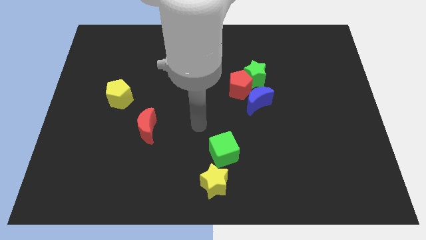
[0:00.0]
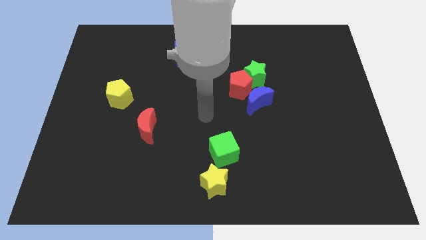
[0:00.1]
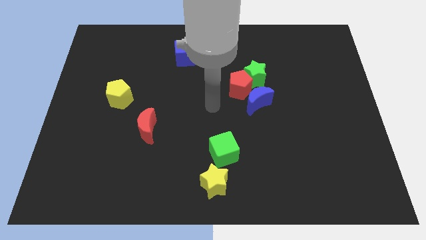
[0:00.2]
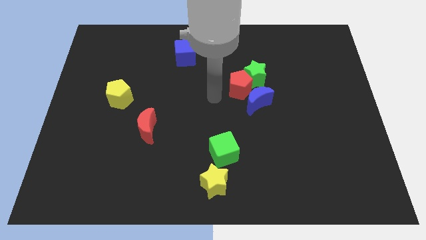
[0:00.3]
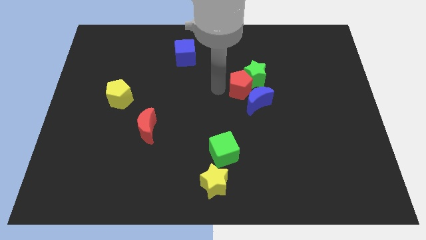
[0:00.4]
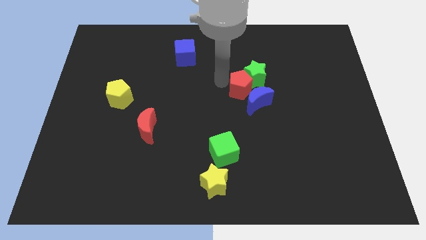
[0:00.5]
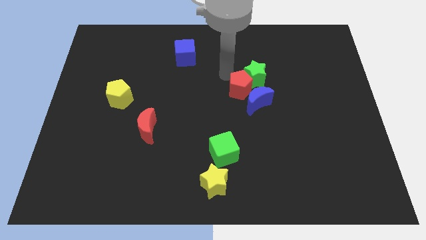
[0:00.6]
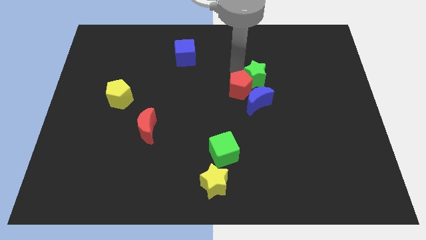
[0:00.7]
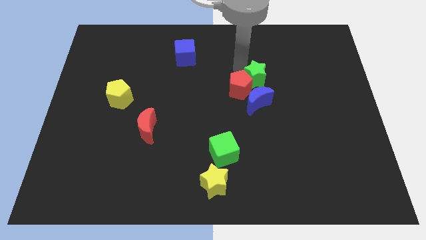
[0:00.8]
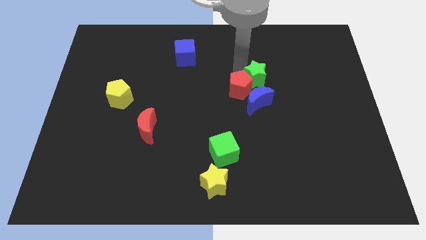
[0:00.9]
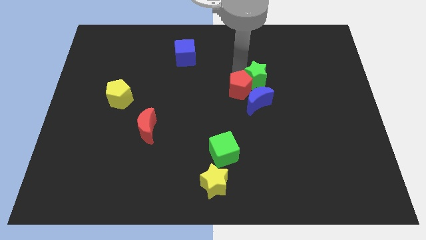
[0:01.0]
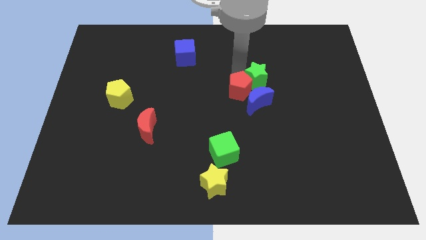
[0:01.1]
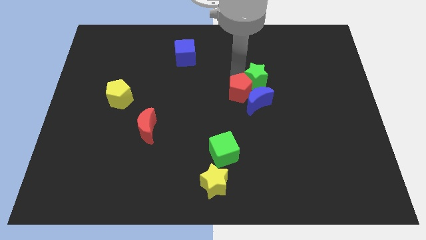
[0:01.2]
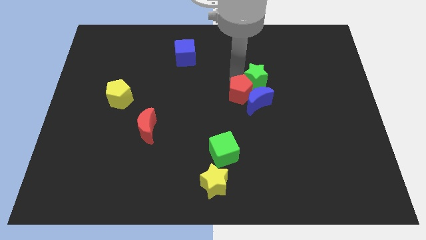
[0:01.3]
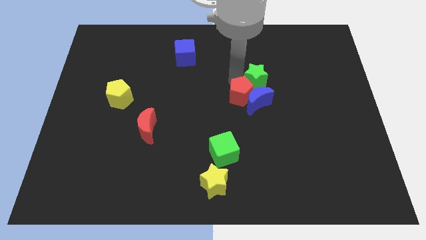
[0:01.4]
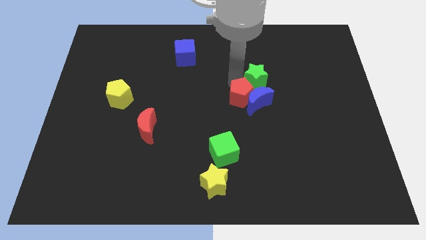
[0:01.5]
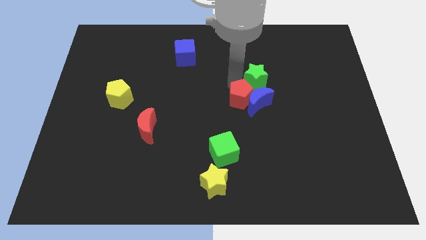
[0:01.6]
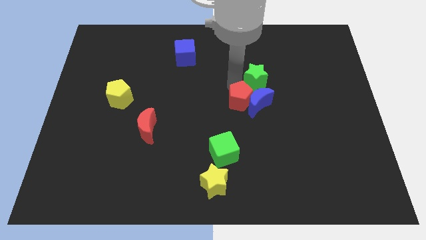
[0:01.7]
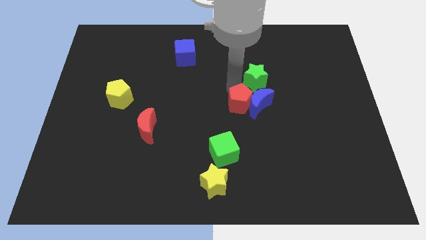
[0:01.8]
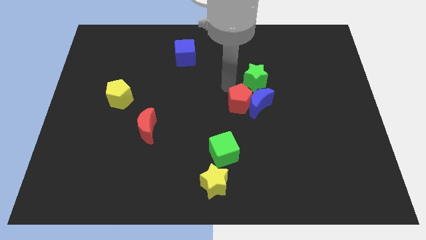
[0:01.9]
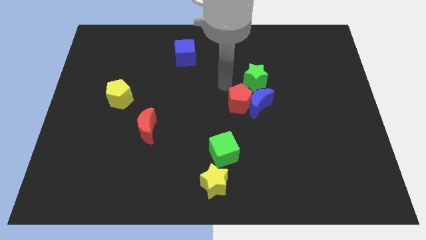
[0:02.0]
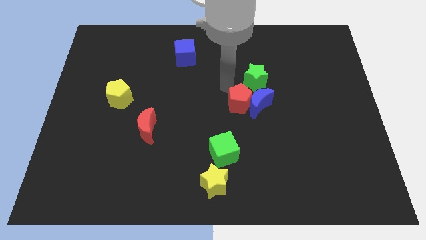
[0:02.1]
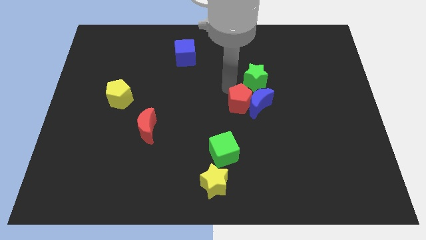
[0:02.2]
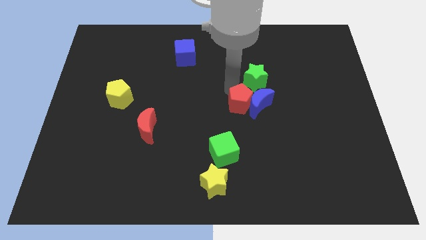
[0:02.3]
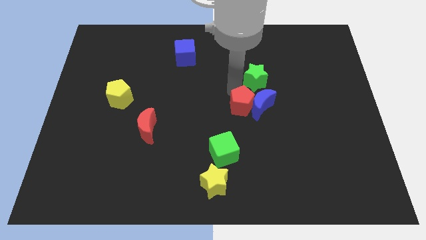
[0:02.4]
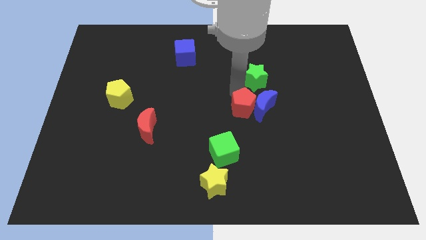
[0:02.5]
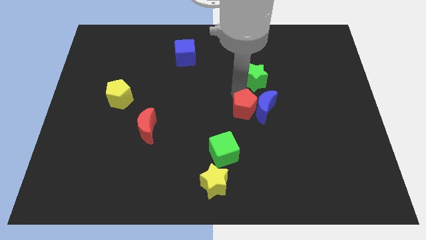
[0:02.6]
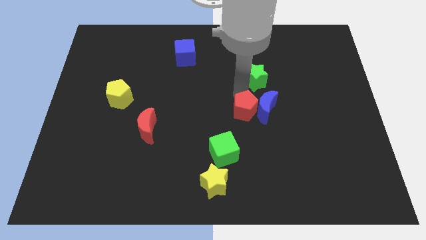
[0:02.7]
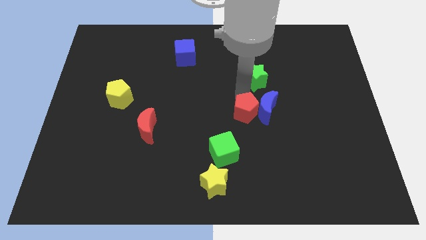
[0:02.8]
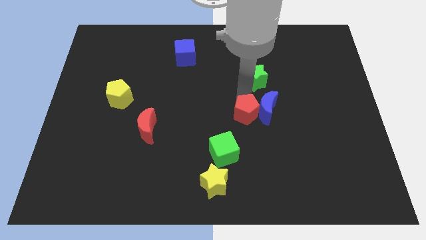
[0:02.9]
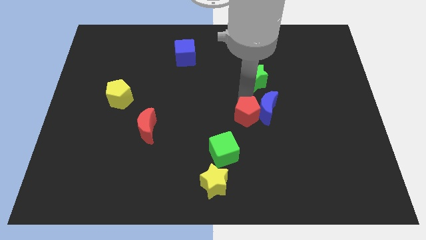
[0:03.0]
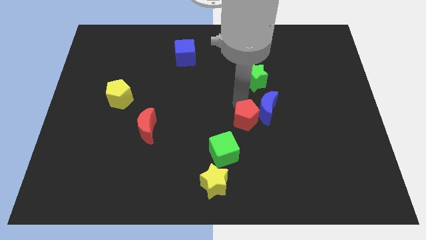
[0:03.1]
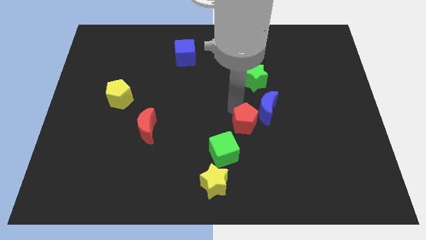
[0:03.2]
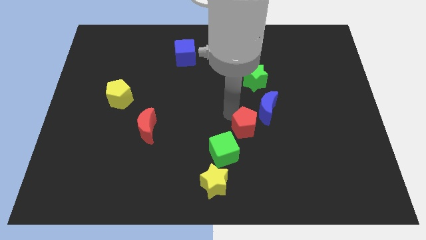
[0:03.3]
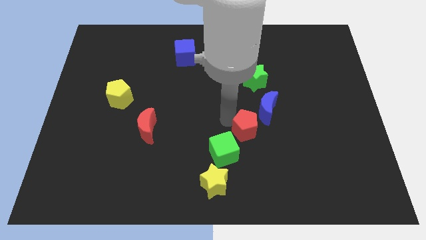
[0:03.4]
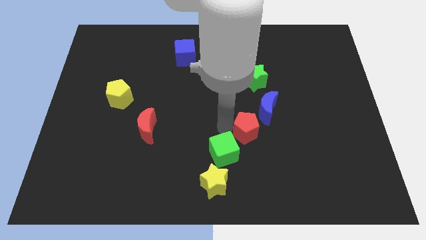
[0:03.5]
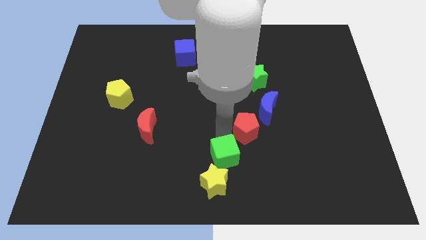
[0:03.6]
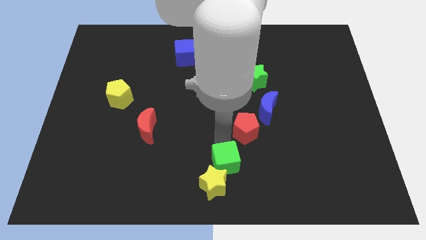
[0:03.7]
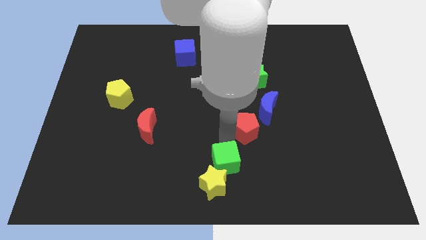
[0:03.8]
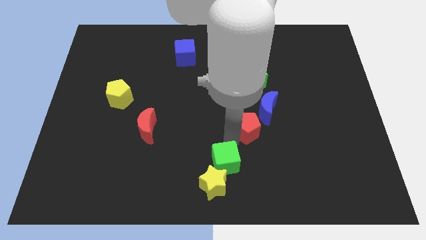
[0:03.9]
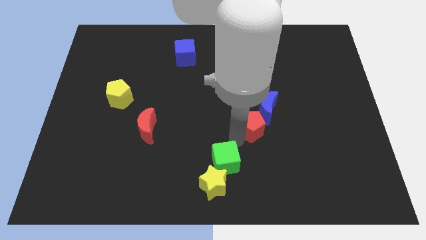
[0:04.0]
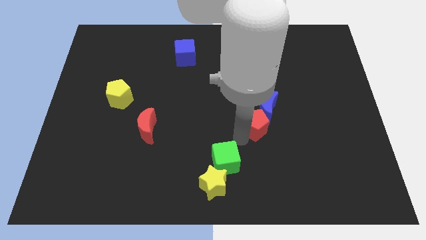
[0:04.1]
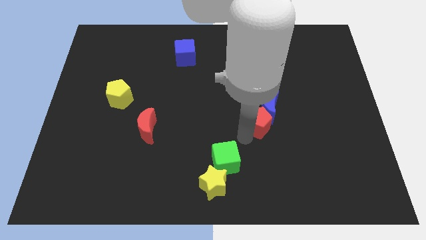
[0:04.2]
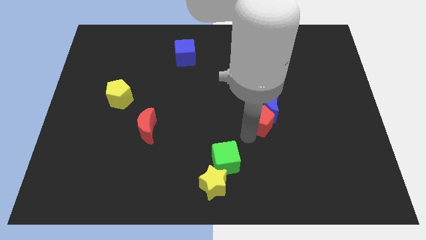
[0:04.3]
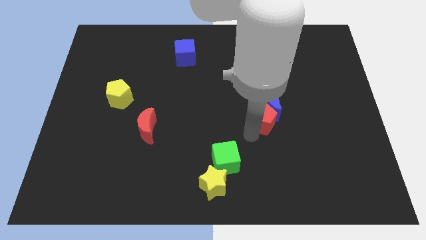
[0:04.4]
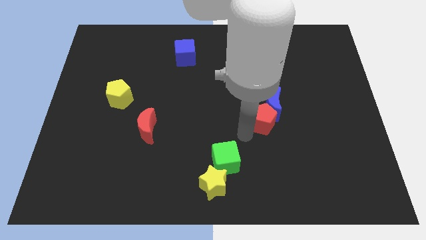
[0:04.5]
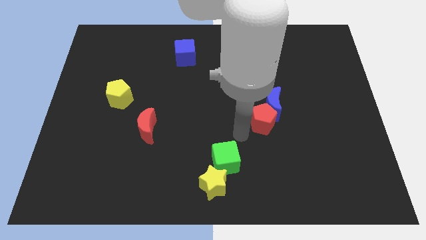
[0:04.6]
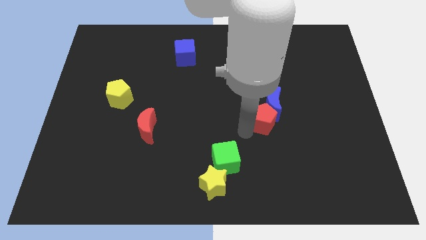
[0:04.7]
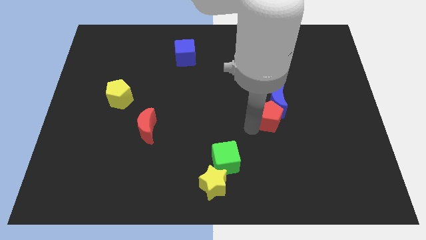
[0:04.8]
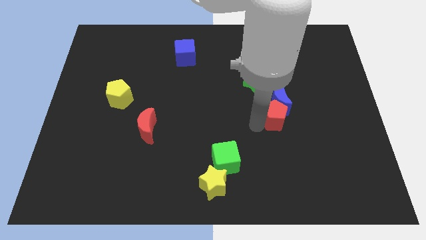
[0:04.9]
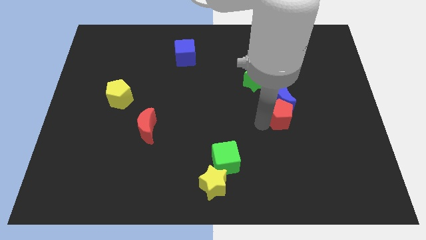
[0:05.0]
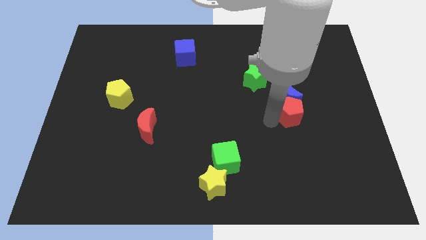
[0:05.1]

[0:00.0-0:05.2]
move the red pentagon a little bit right

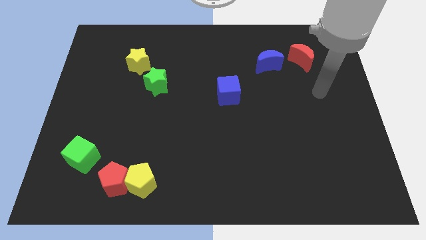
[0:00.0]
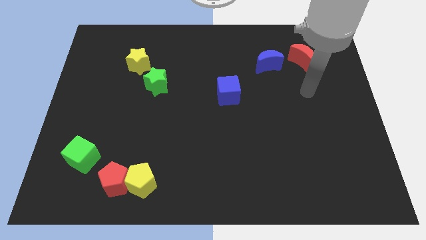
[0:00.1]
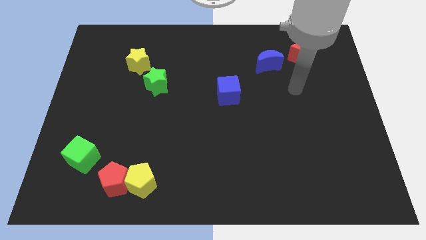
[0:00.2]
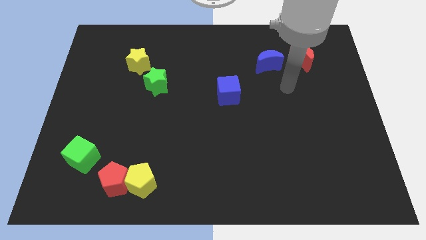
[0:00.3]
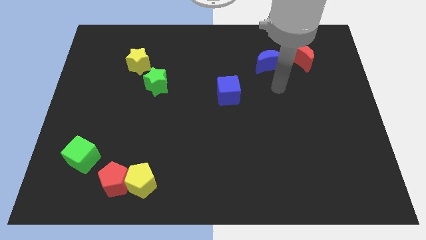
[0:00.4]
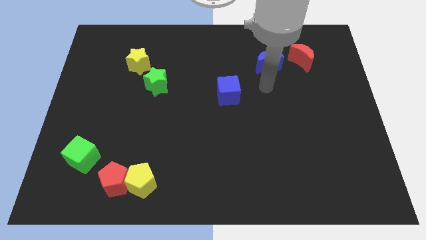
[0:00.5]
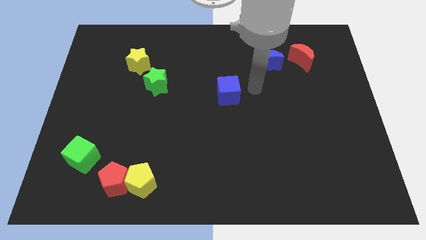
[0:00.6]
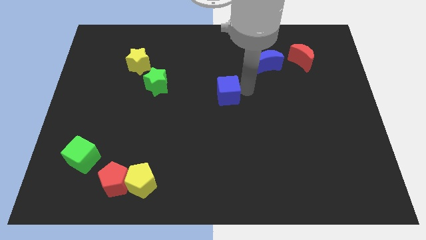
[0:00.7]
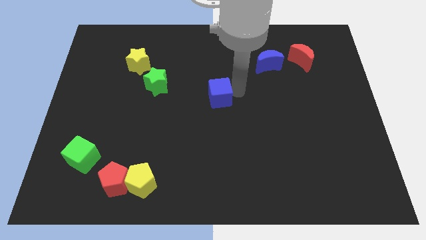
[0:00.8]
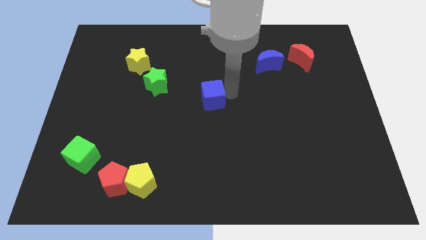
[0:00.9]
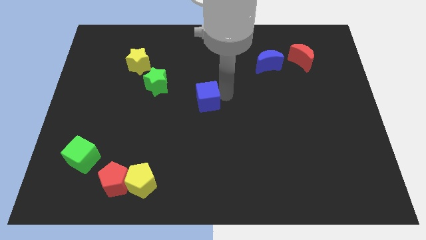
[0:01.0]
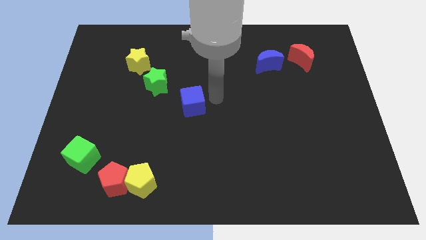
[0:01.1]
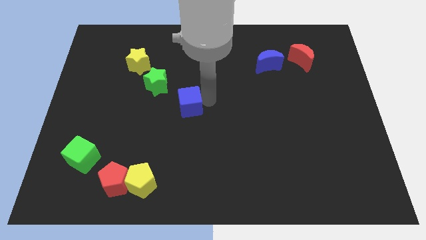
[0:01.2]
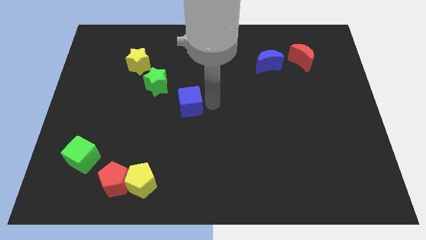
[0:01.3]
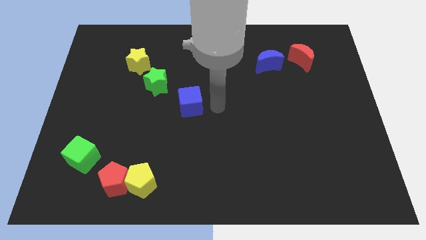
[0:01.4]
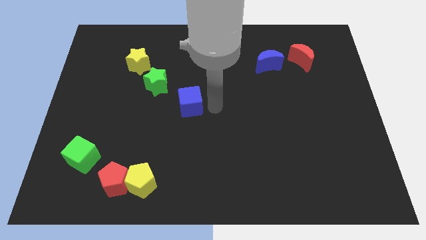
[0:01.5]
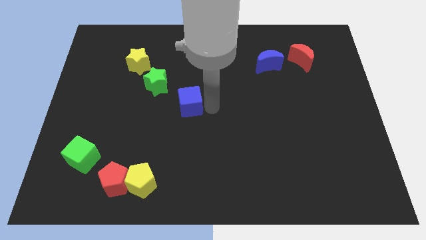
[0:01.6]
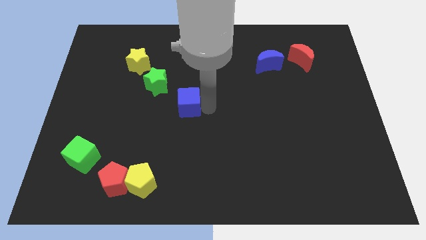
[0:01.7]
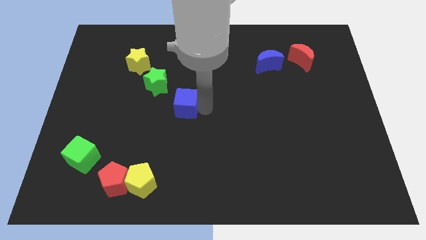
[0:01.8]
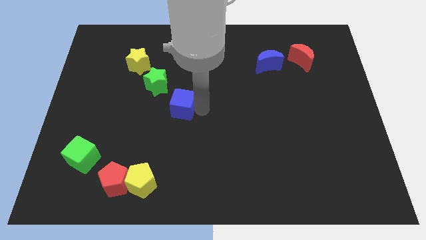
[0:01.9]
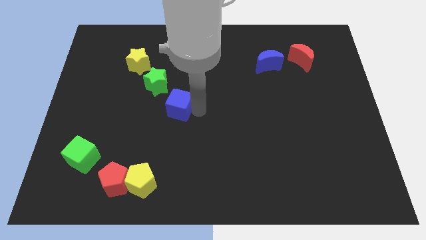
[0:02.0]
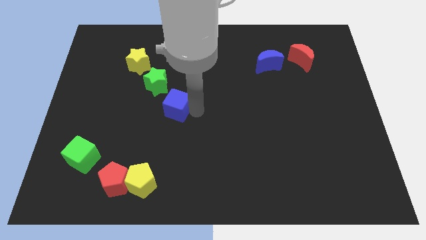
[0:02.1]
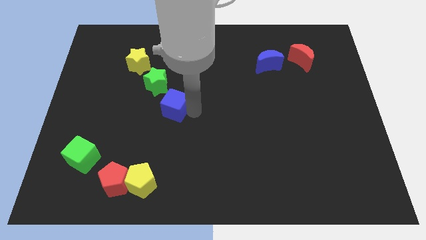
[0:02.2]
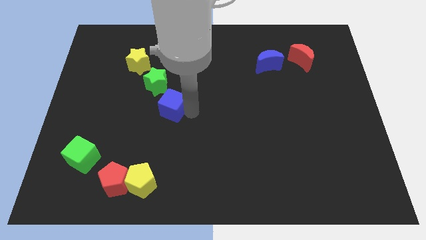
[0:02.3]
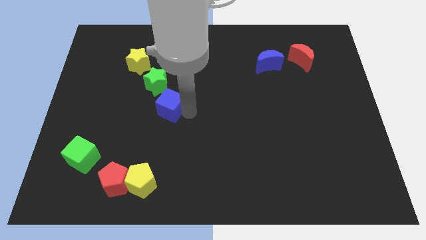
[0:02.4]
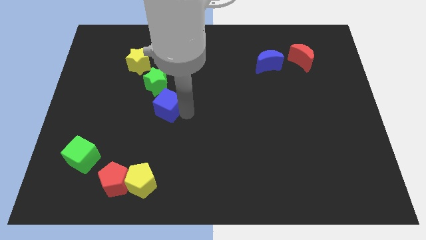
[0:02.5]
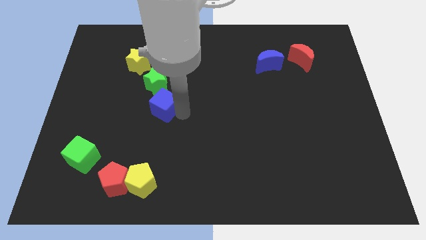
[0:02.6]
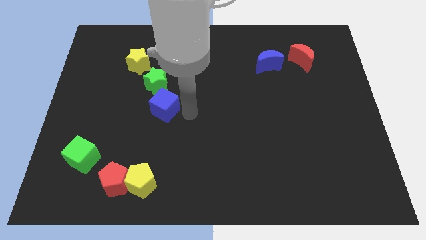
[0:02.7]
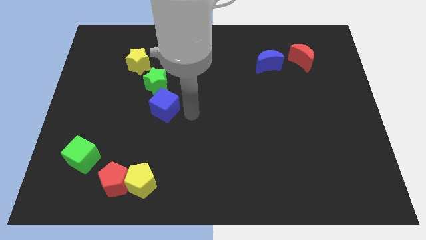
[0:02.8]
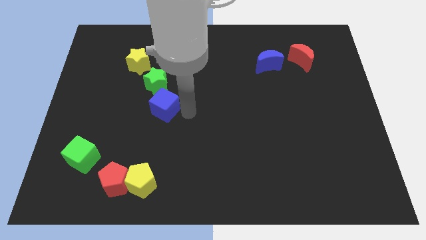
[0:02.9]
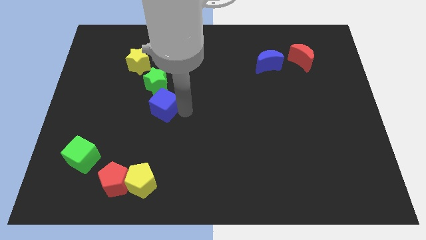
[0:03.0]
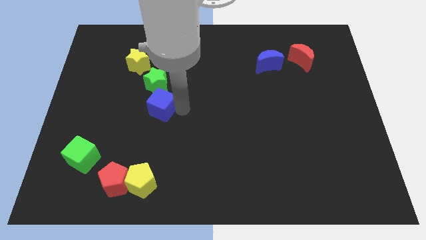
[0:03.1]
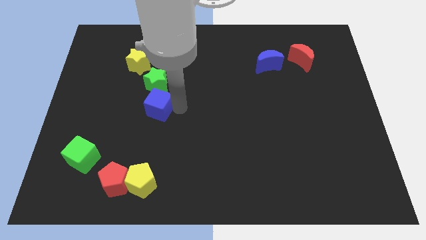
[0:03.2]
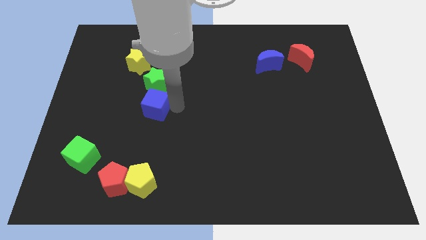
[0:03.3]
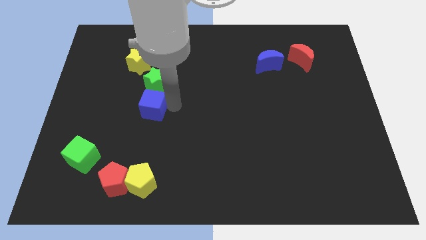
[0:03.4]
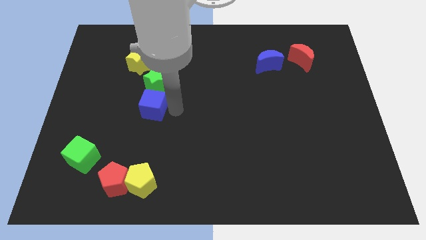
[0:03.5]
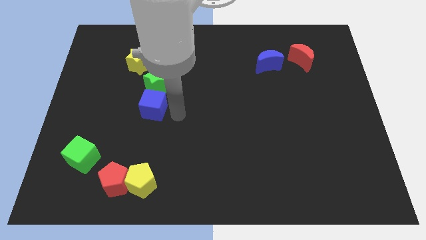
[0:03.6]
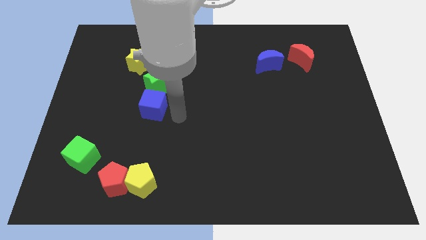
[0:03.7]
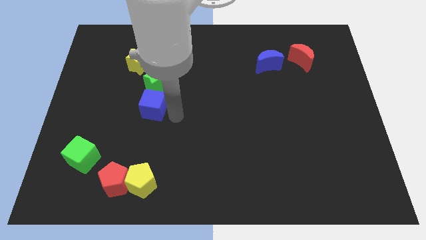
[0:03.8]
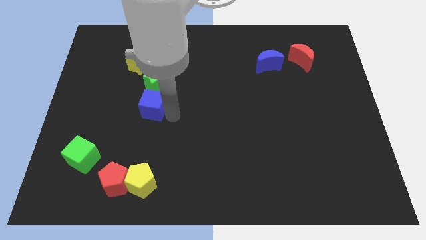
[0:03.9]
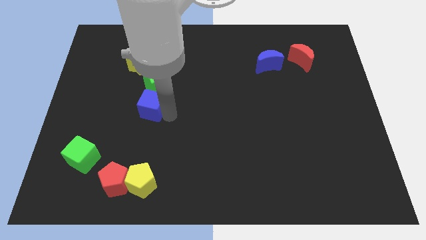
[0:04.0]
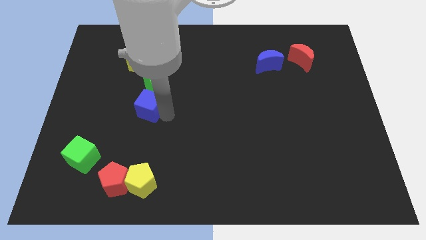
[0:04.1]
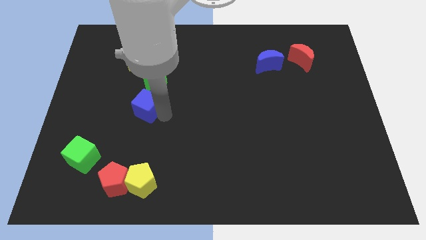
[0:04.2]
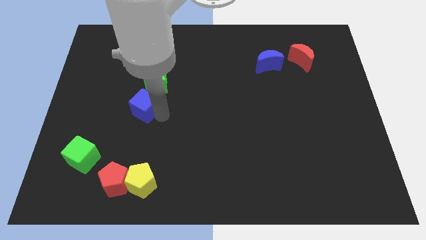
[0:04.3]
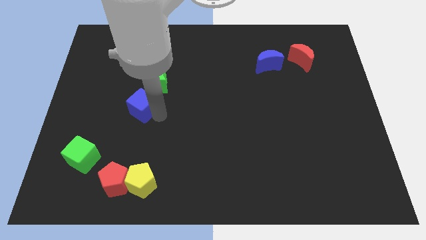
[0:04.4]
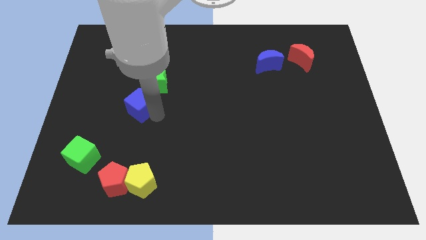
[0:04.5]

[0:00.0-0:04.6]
slide the blue cube to the left
